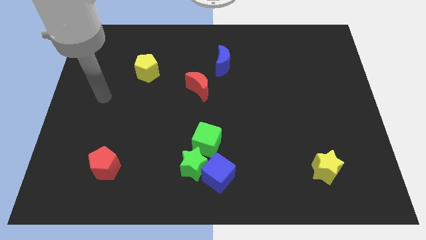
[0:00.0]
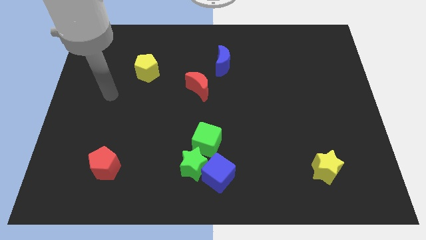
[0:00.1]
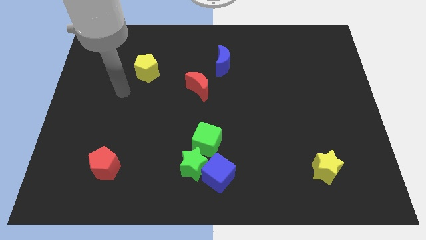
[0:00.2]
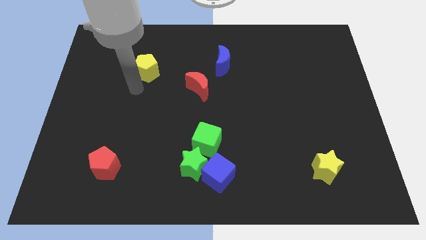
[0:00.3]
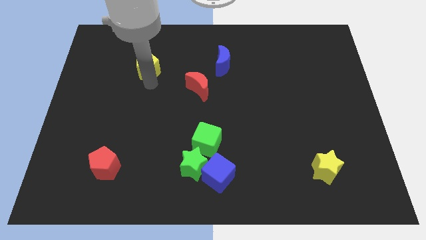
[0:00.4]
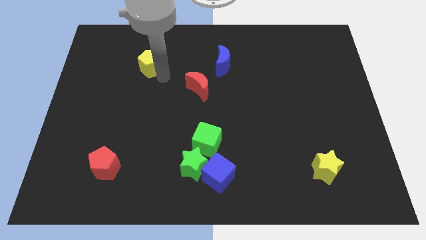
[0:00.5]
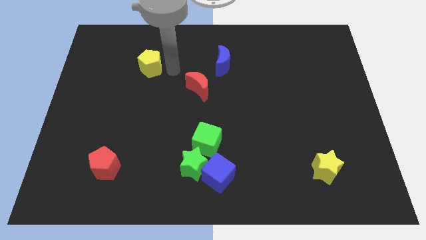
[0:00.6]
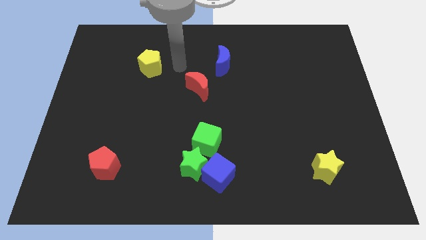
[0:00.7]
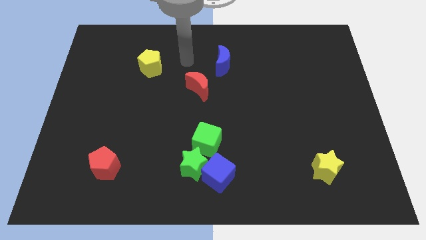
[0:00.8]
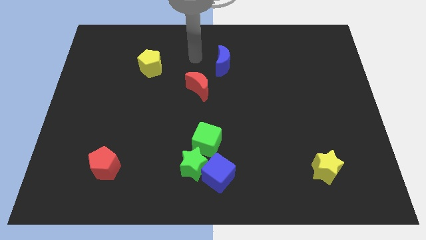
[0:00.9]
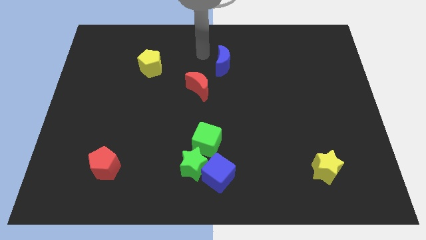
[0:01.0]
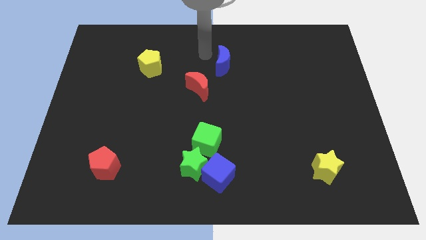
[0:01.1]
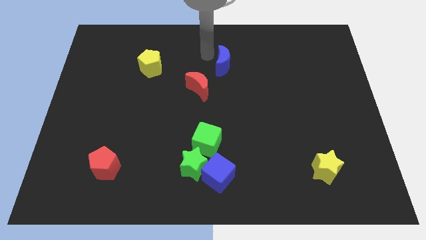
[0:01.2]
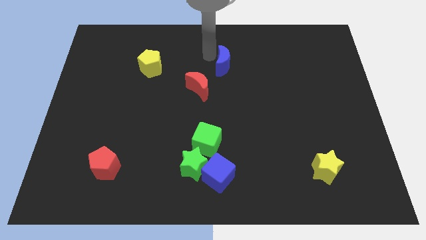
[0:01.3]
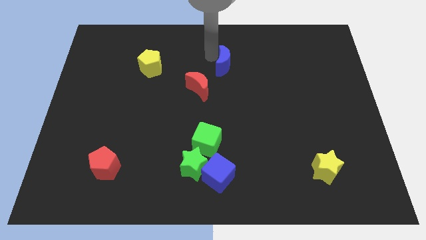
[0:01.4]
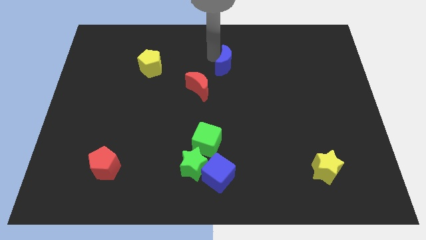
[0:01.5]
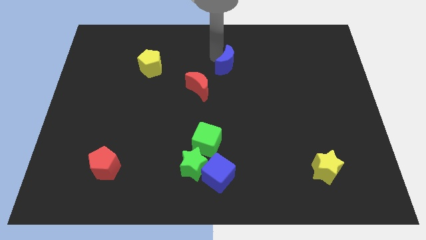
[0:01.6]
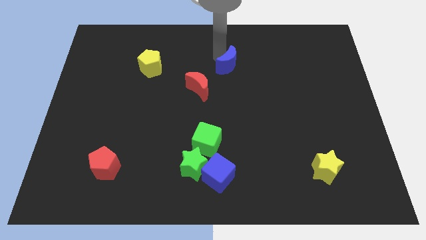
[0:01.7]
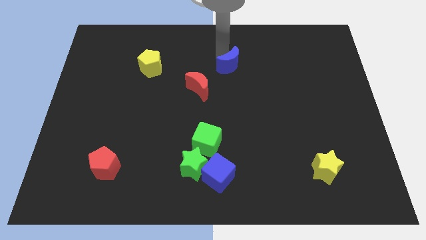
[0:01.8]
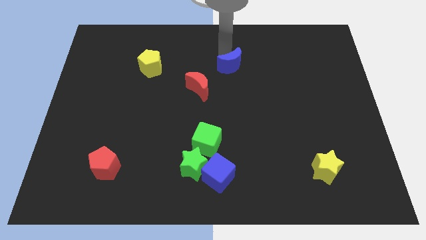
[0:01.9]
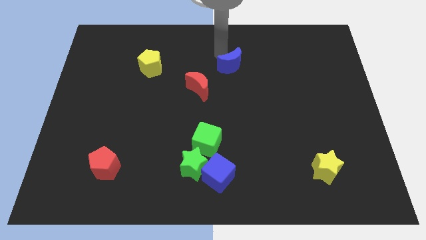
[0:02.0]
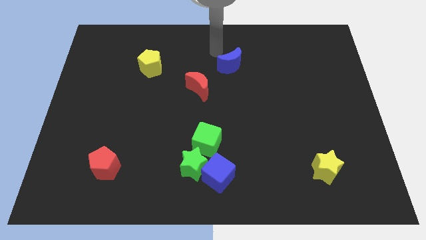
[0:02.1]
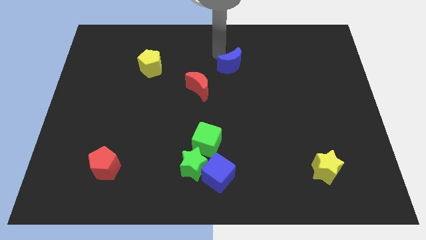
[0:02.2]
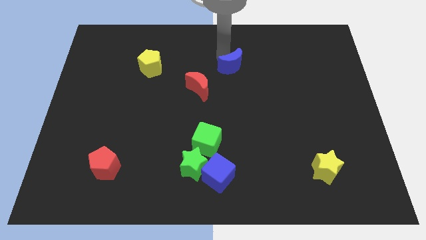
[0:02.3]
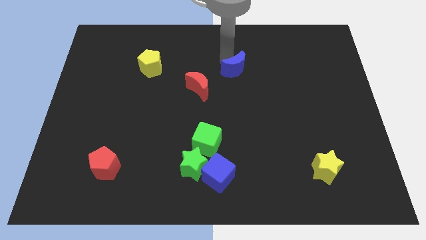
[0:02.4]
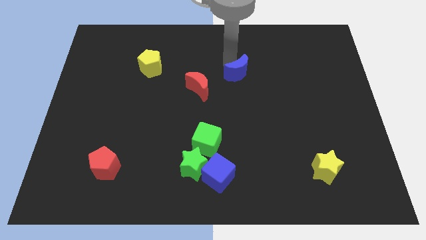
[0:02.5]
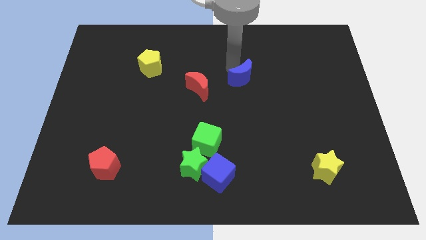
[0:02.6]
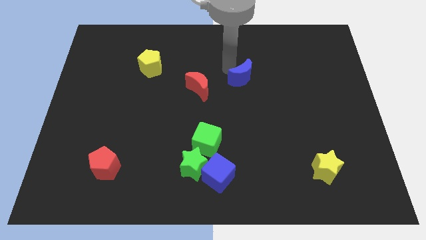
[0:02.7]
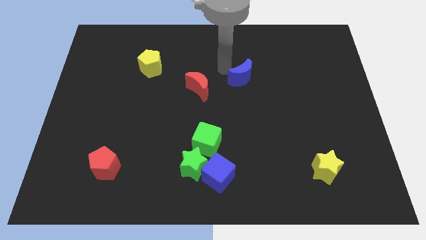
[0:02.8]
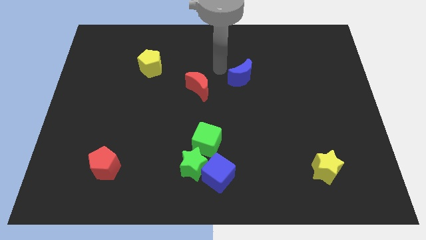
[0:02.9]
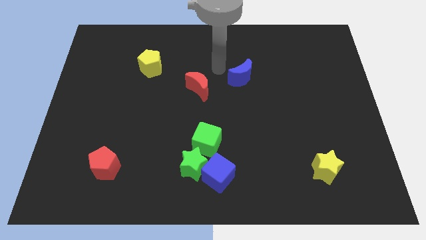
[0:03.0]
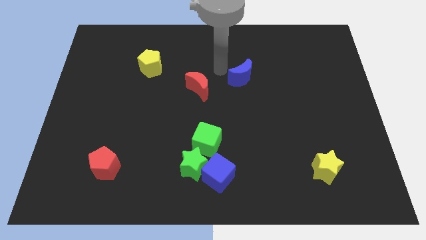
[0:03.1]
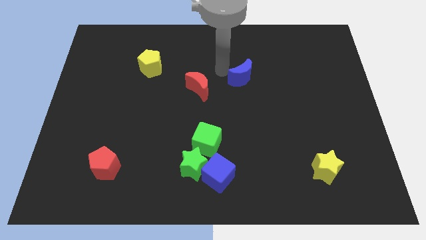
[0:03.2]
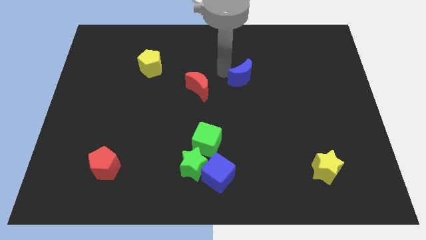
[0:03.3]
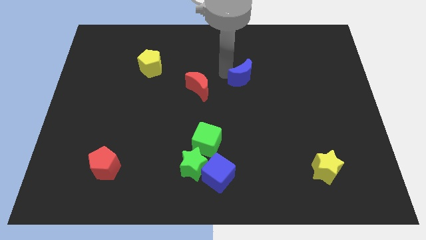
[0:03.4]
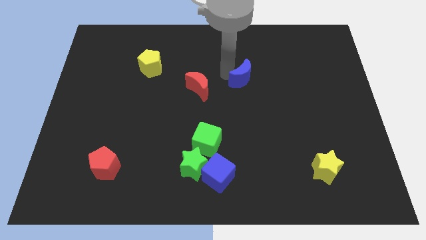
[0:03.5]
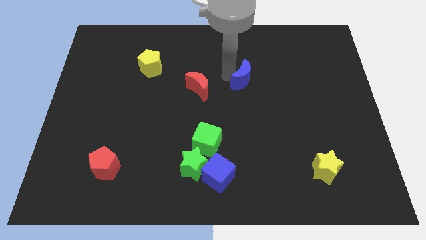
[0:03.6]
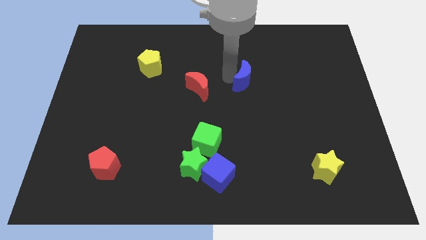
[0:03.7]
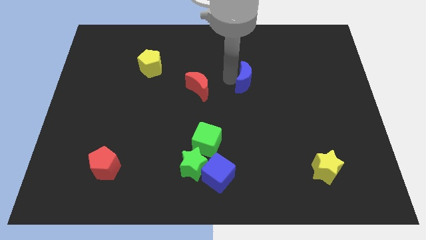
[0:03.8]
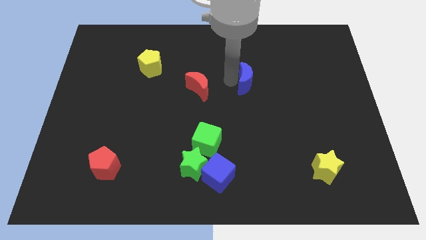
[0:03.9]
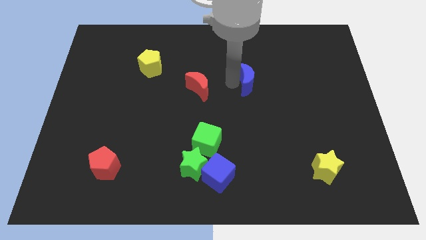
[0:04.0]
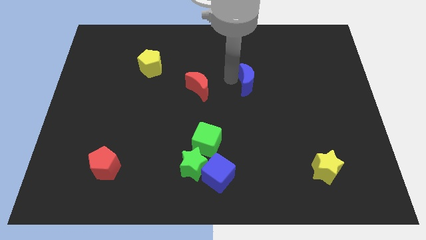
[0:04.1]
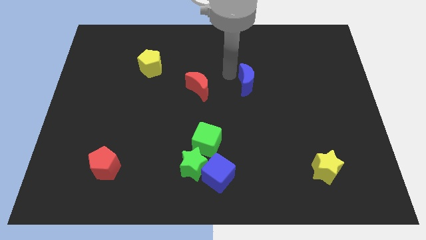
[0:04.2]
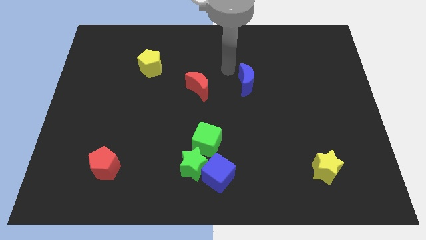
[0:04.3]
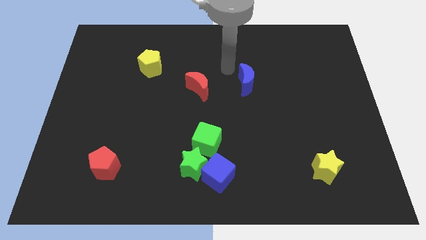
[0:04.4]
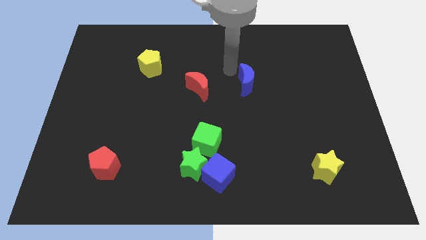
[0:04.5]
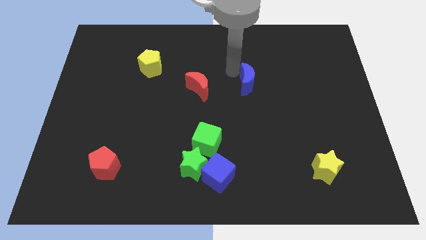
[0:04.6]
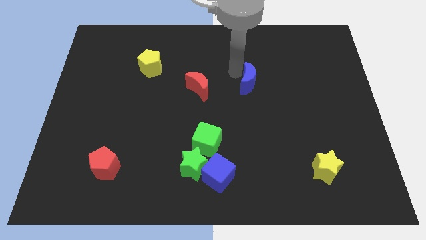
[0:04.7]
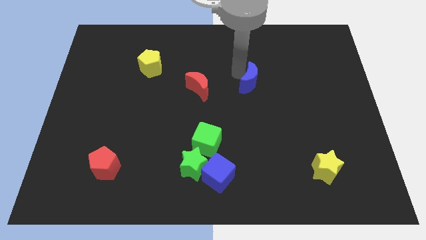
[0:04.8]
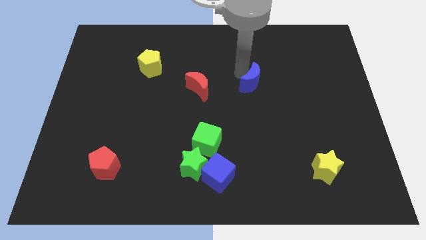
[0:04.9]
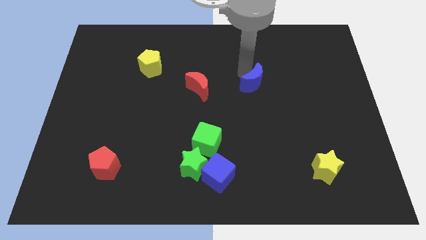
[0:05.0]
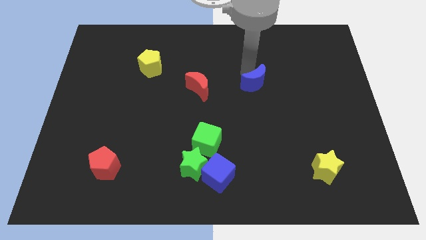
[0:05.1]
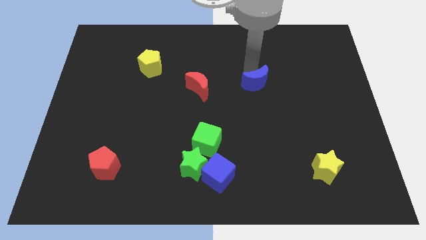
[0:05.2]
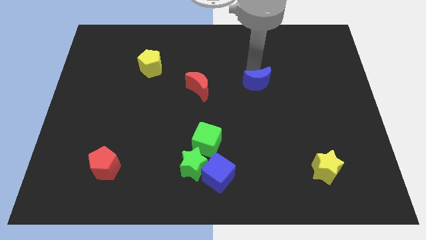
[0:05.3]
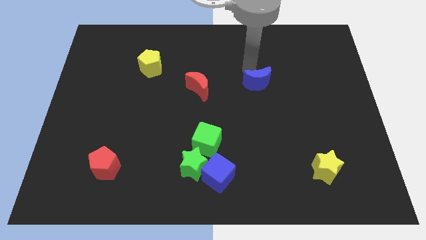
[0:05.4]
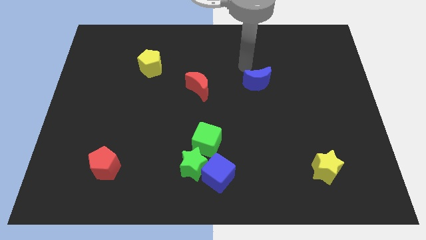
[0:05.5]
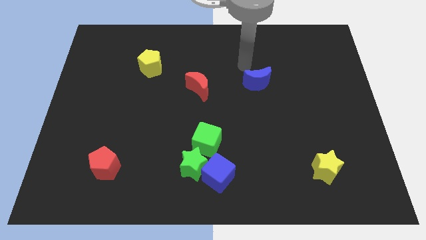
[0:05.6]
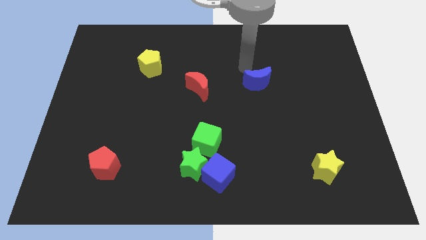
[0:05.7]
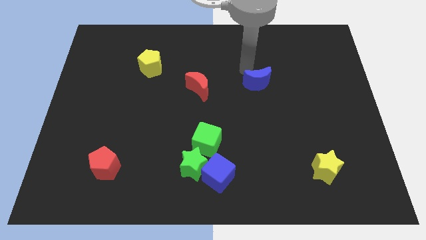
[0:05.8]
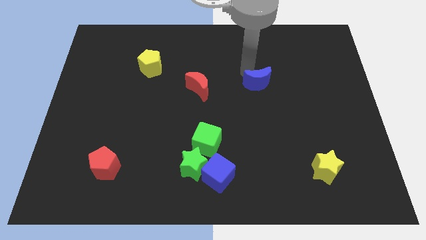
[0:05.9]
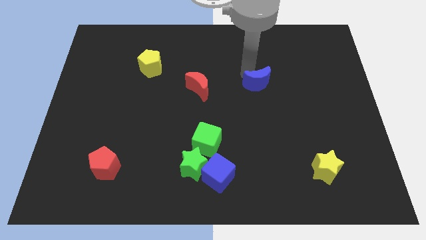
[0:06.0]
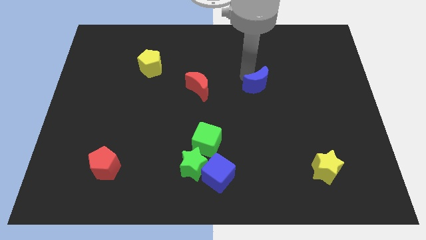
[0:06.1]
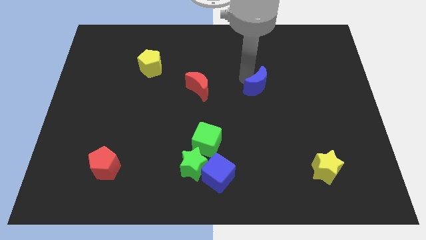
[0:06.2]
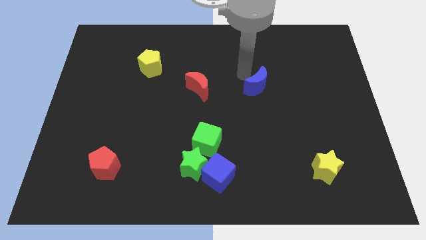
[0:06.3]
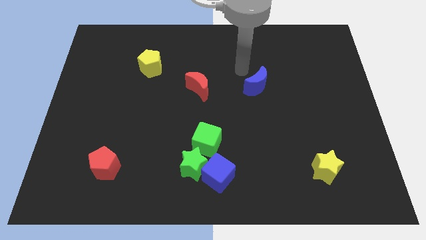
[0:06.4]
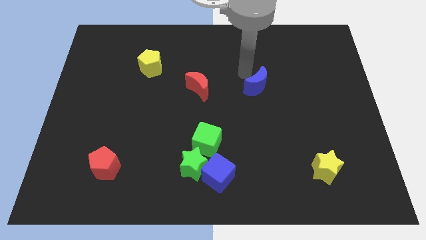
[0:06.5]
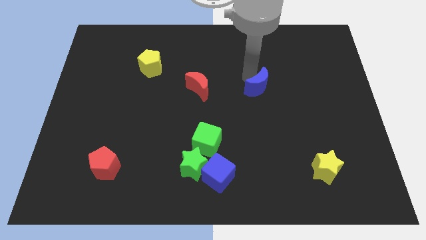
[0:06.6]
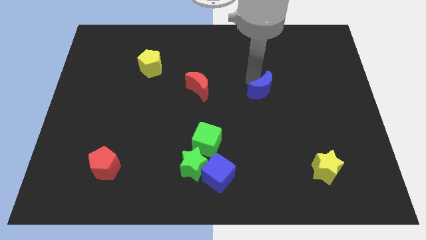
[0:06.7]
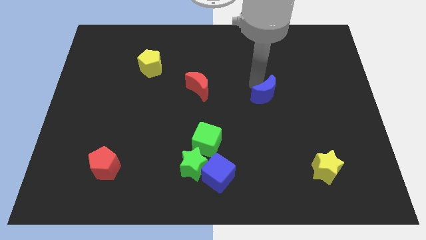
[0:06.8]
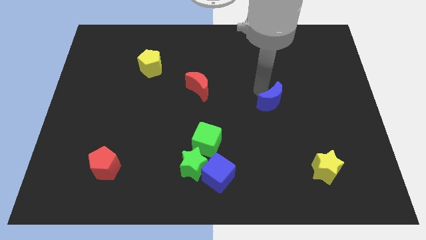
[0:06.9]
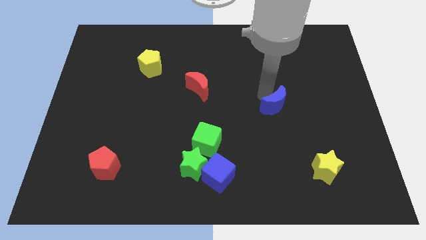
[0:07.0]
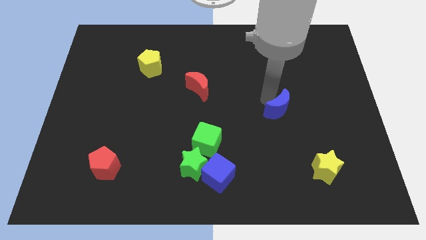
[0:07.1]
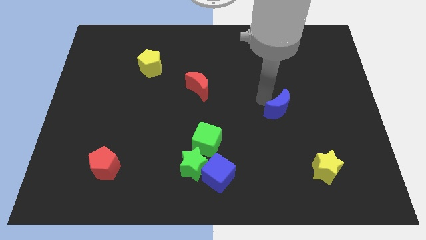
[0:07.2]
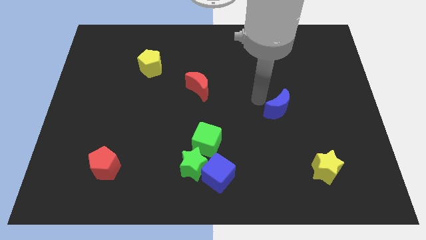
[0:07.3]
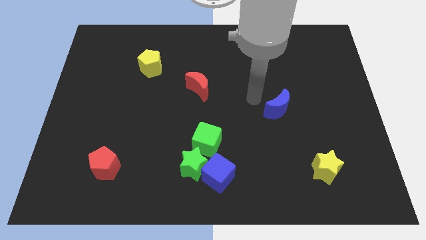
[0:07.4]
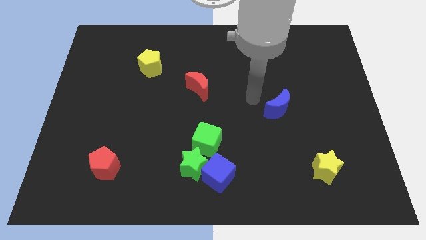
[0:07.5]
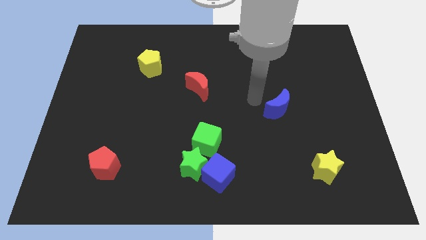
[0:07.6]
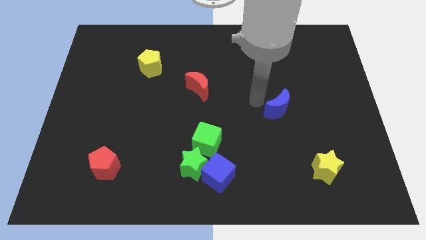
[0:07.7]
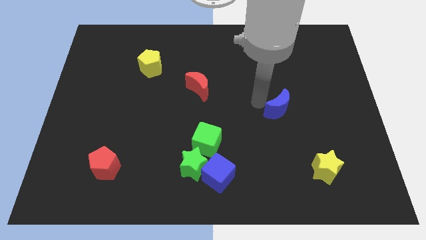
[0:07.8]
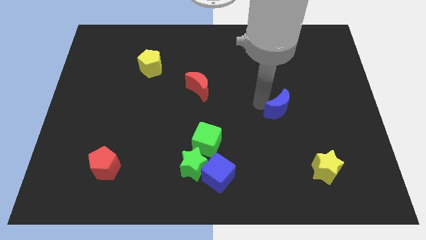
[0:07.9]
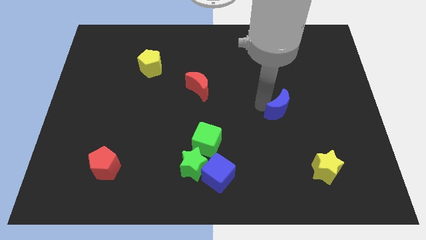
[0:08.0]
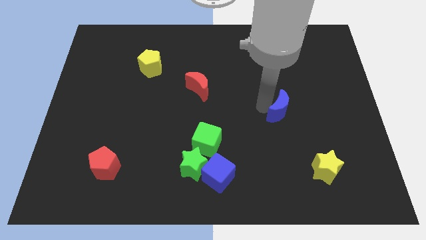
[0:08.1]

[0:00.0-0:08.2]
move the blue moon down and then to the right

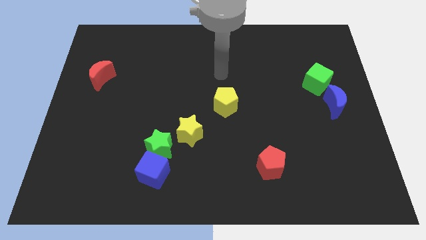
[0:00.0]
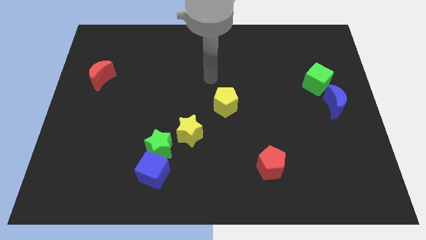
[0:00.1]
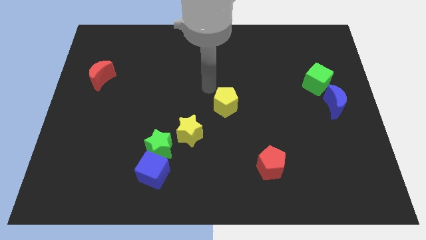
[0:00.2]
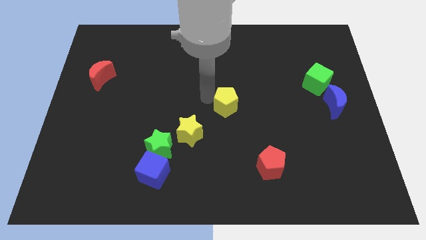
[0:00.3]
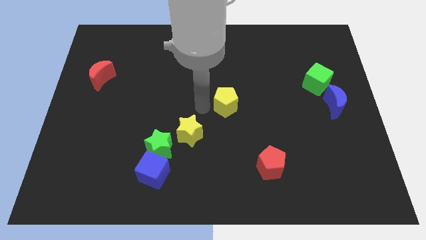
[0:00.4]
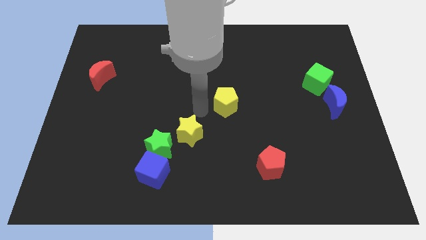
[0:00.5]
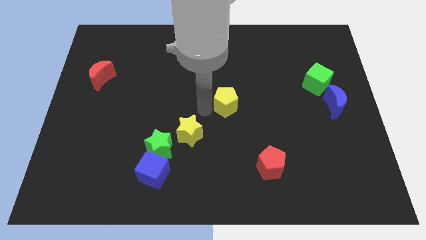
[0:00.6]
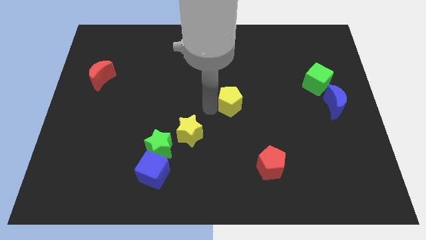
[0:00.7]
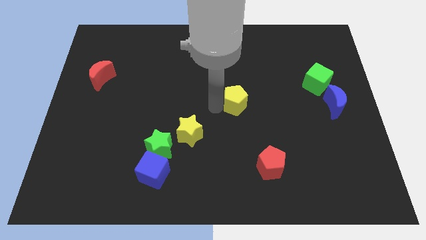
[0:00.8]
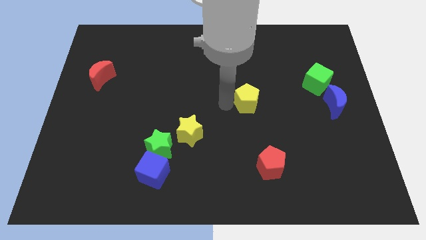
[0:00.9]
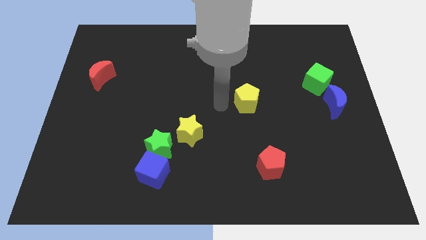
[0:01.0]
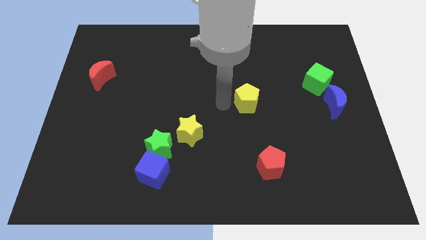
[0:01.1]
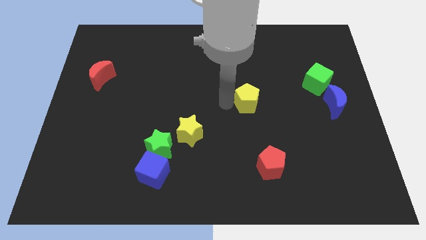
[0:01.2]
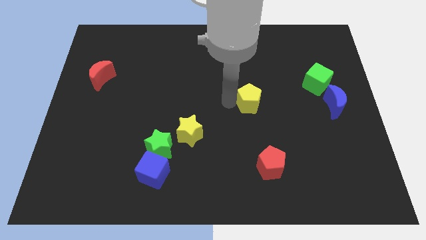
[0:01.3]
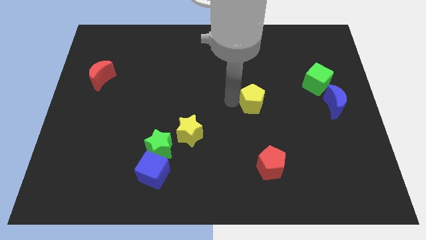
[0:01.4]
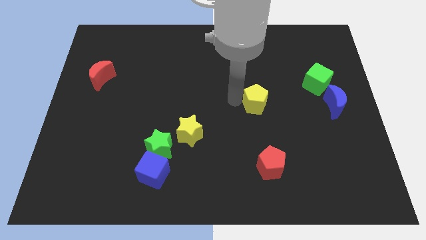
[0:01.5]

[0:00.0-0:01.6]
push the yellow pentagon a little right
